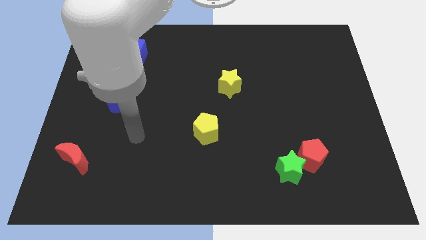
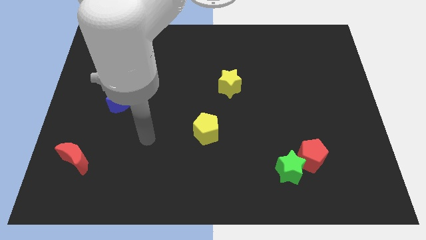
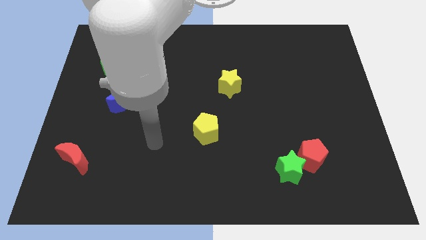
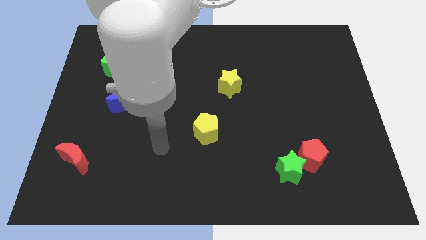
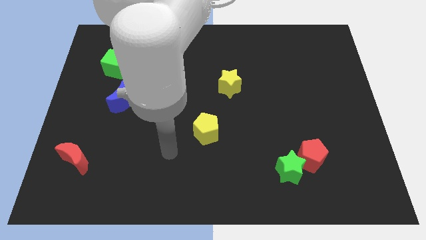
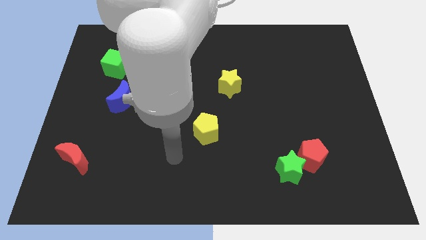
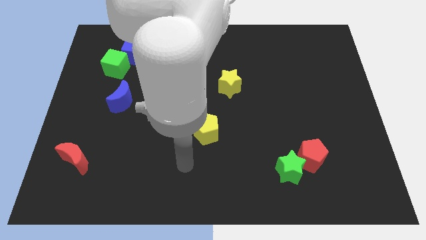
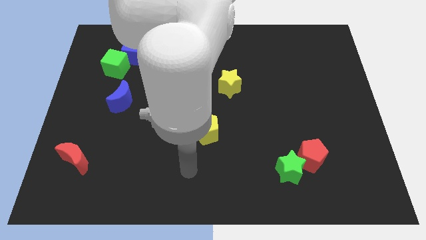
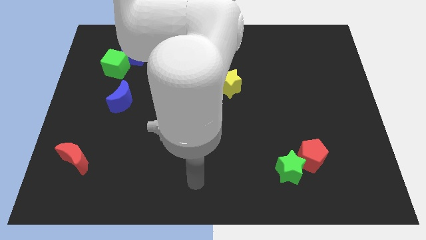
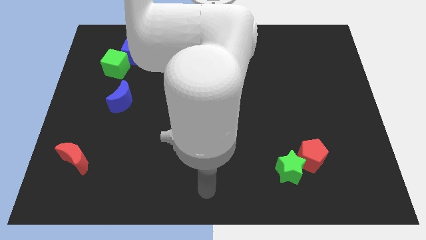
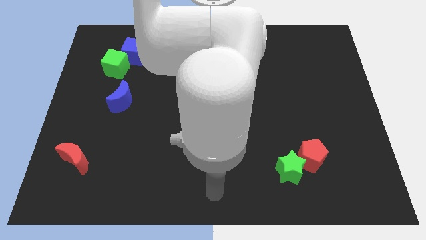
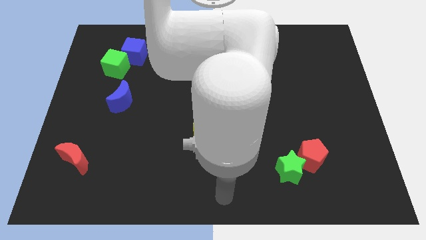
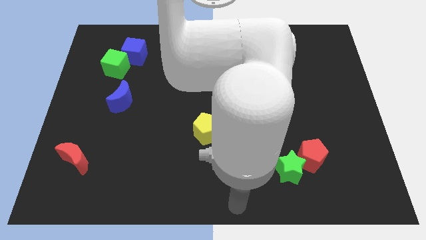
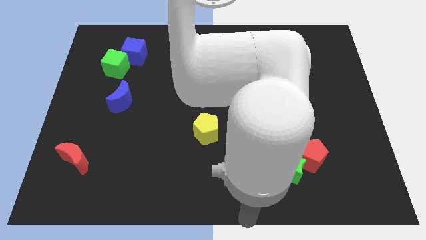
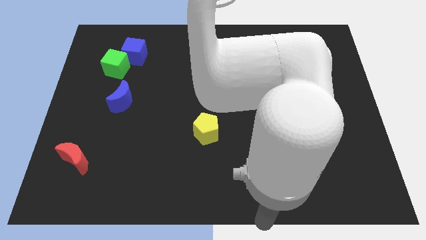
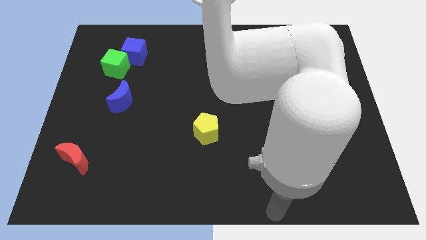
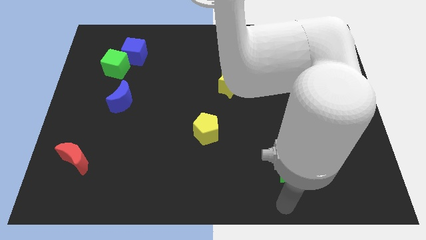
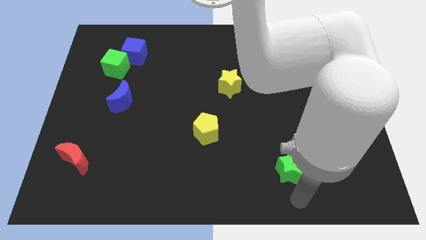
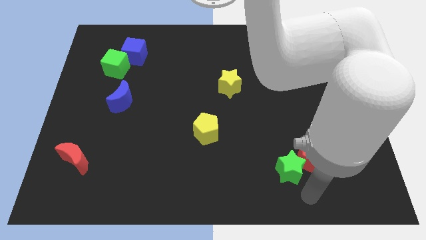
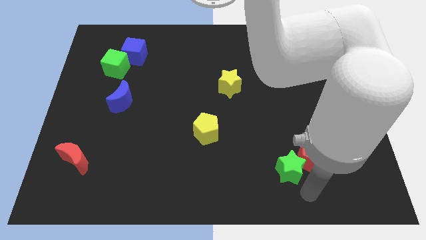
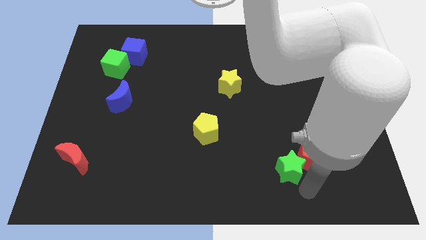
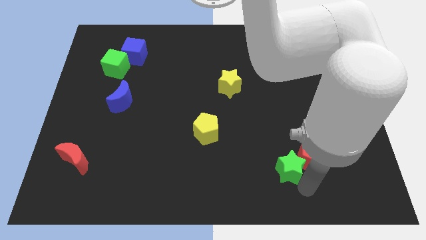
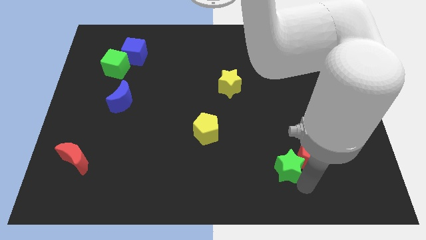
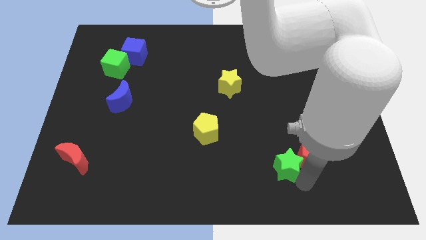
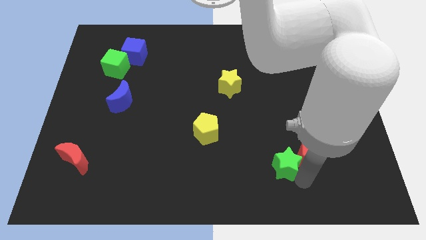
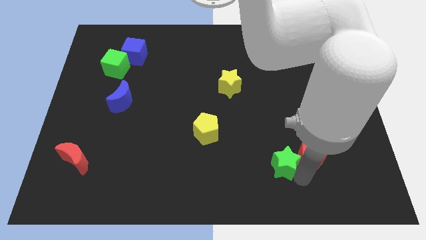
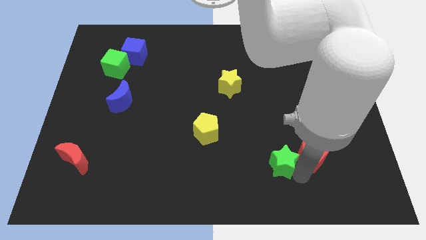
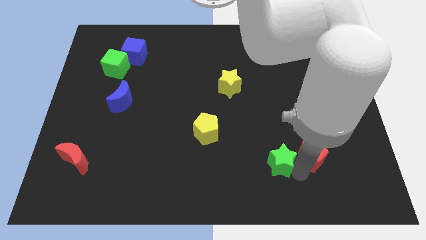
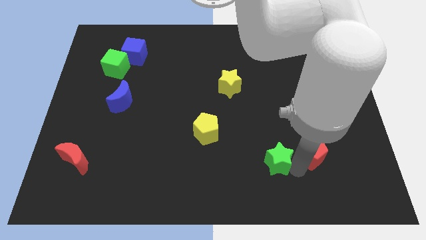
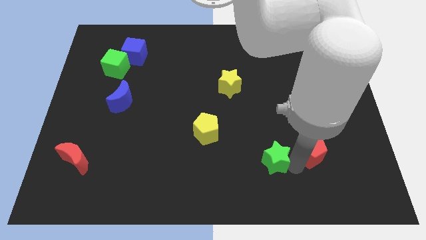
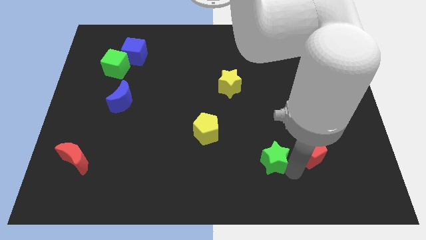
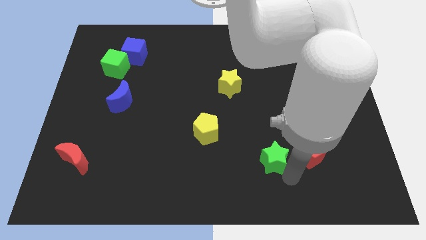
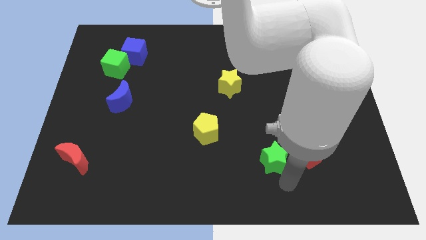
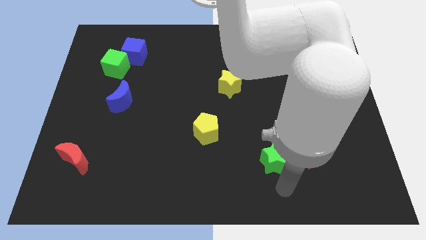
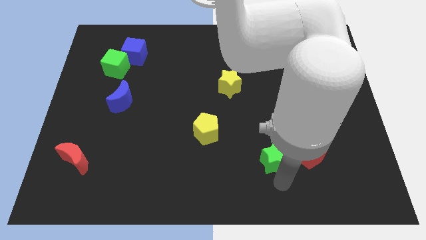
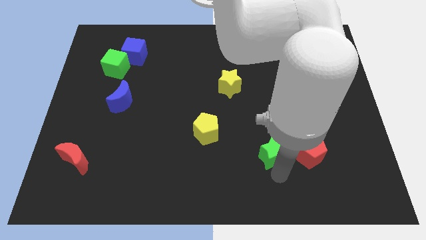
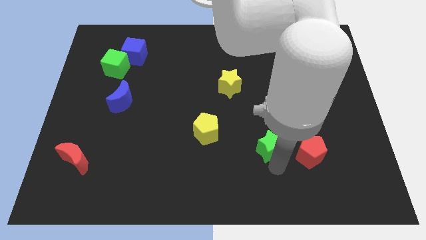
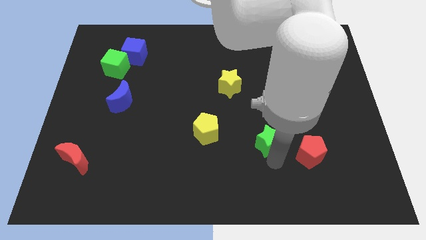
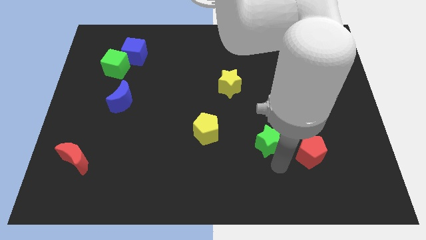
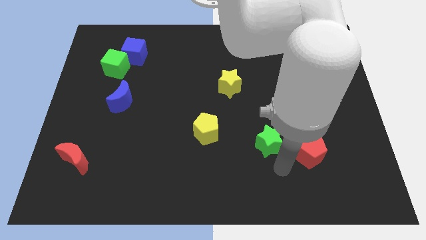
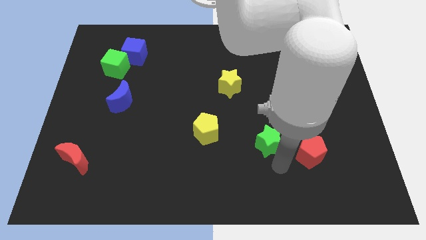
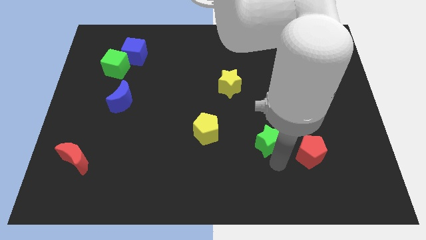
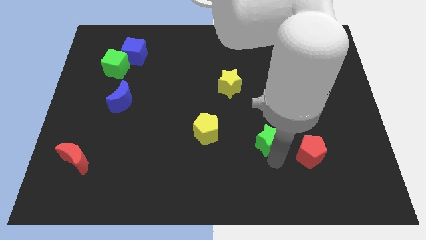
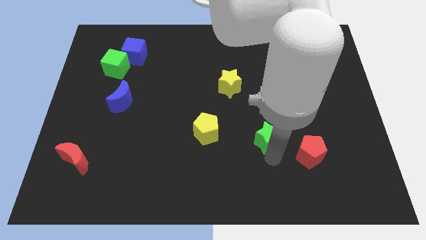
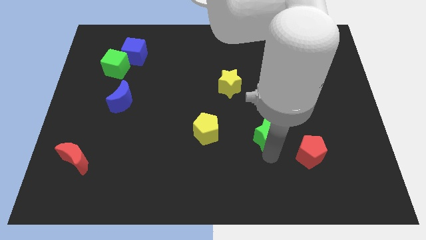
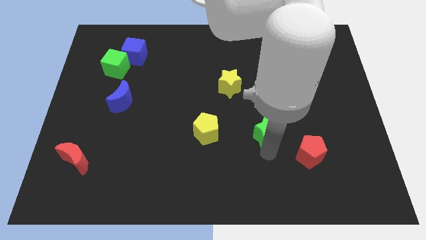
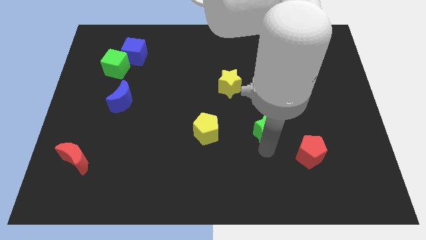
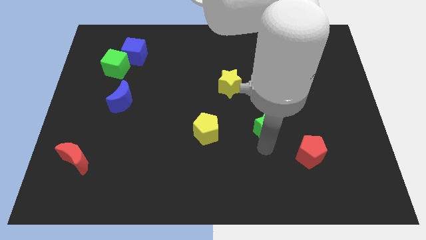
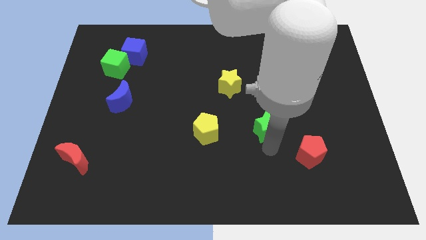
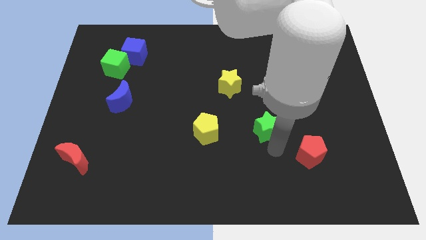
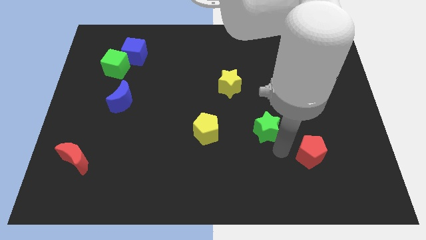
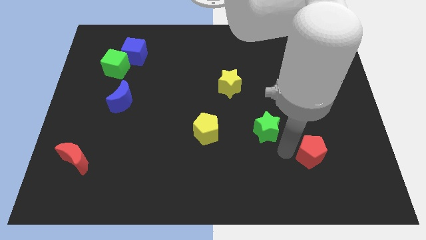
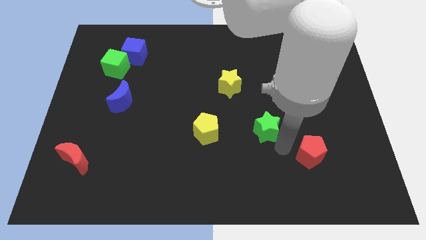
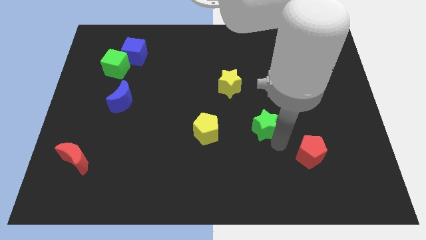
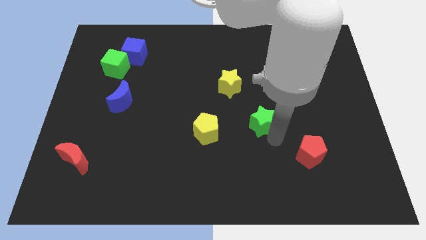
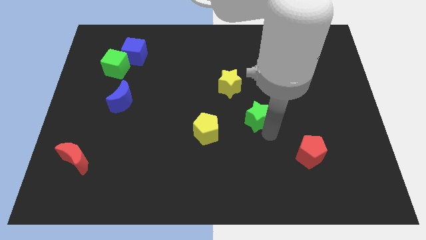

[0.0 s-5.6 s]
slide the green star to the bottom right of the yellow star

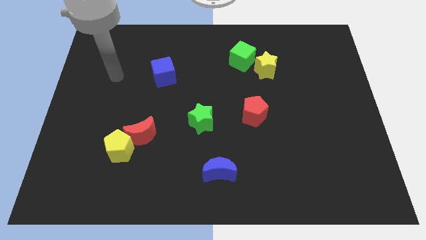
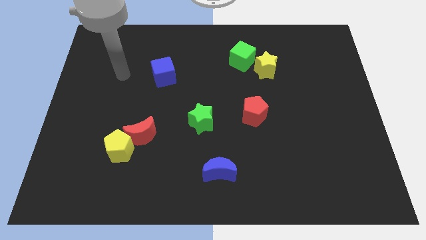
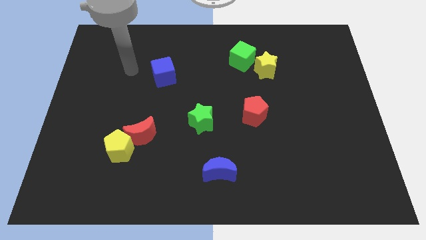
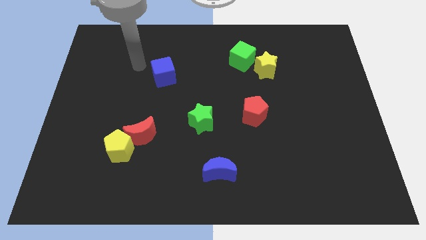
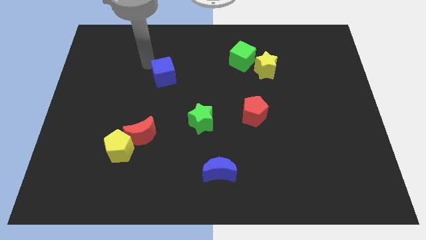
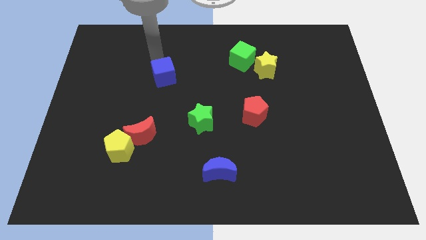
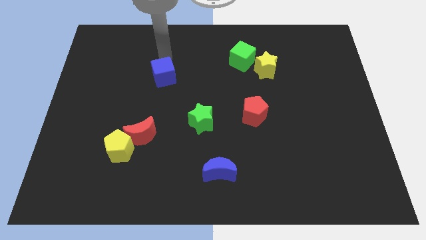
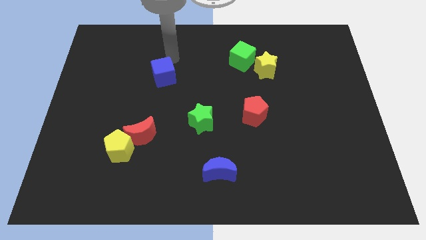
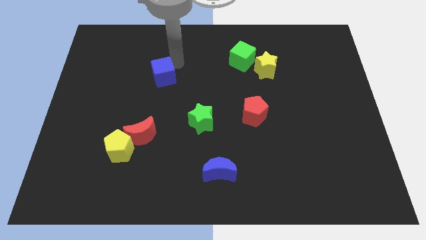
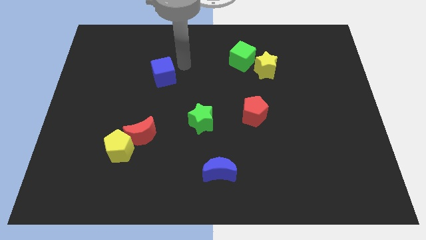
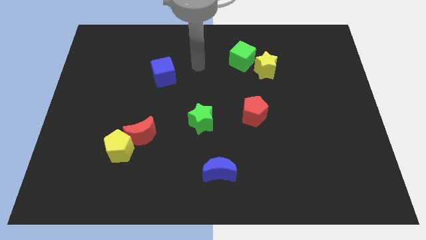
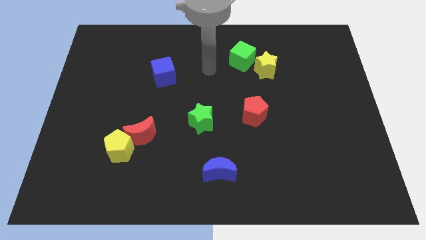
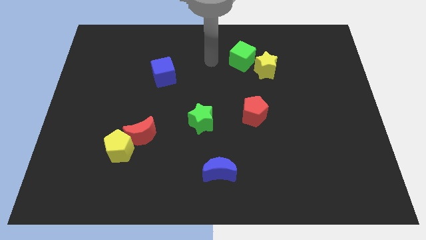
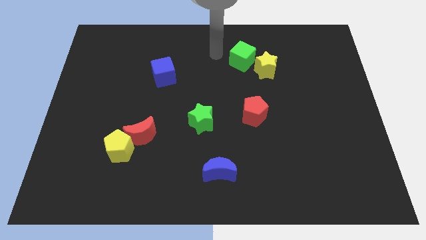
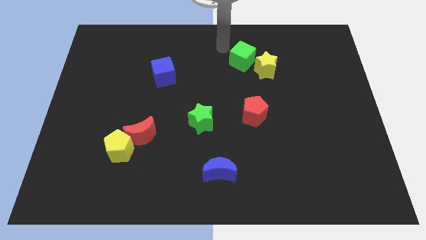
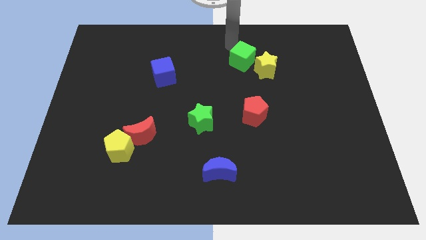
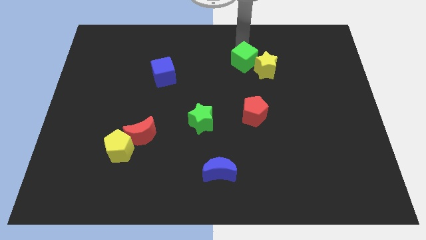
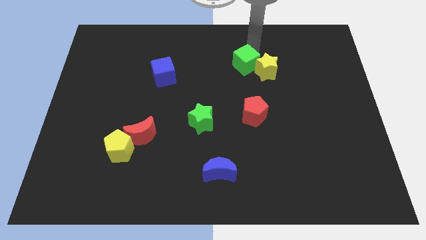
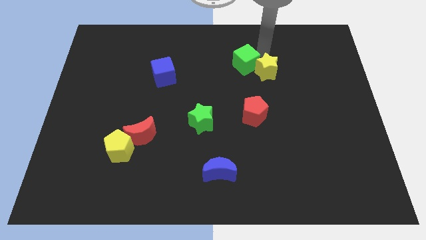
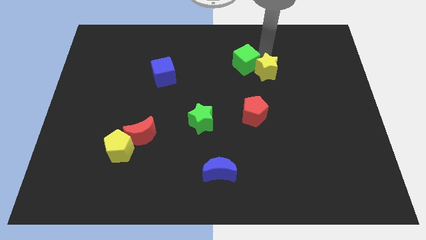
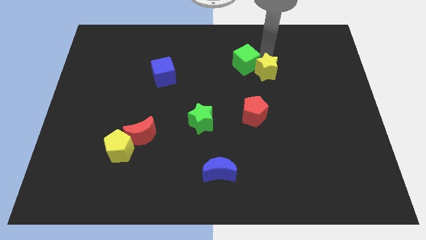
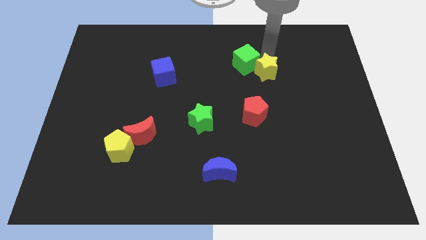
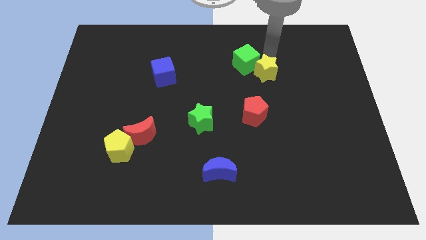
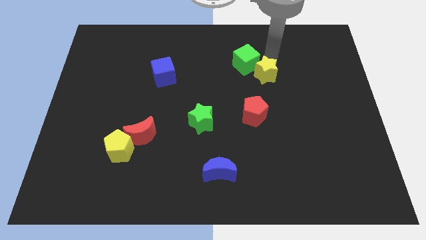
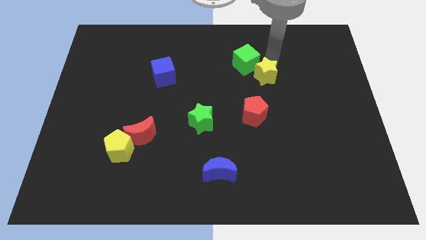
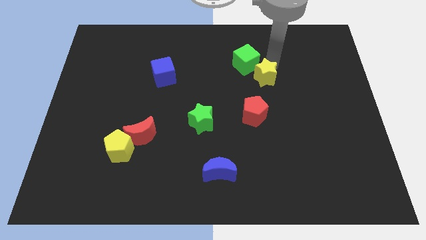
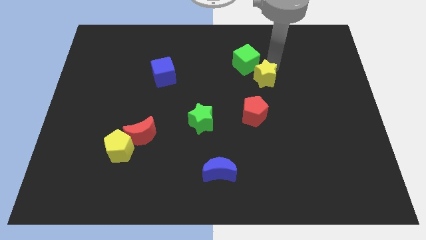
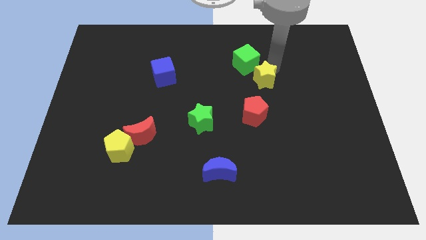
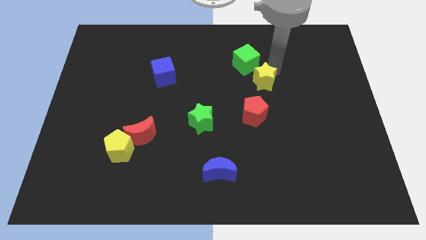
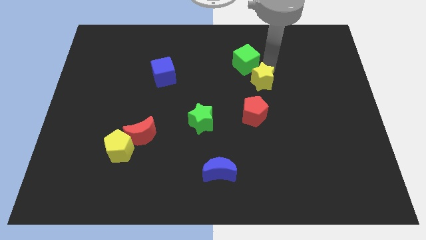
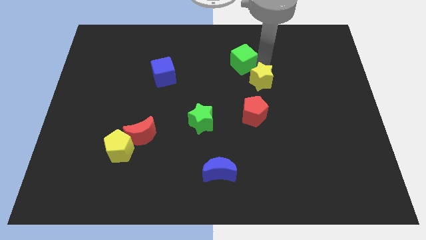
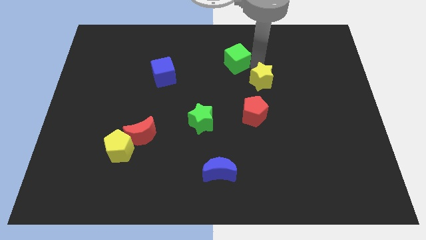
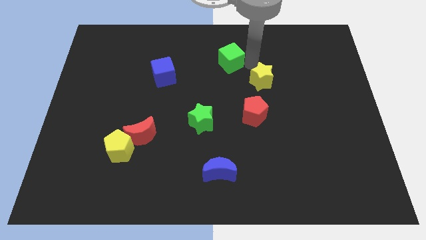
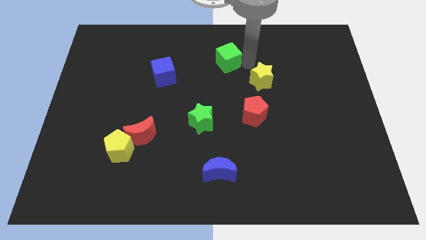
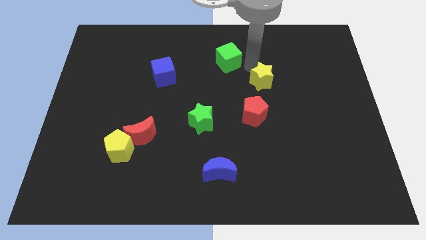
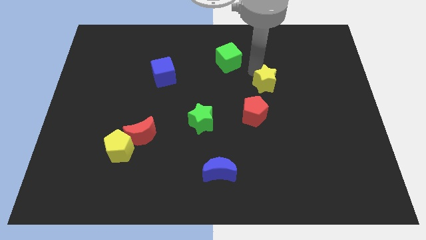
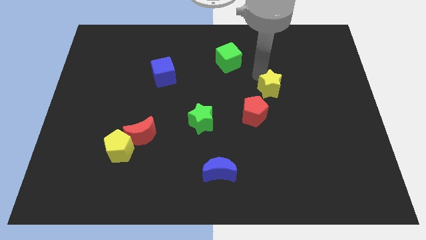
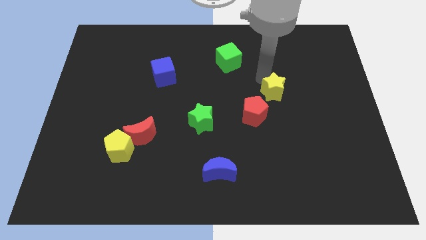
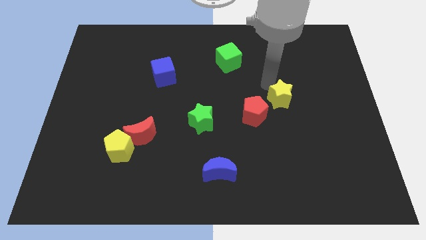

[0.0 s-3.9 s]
put the yellow star just right of the red pentagon
